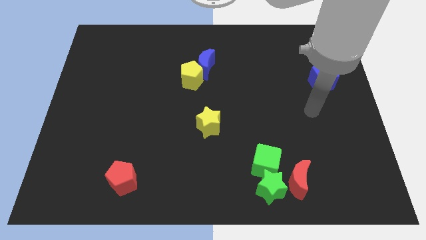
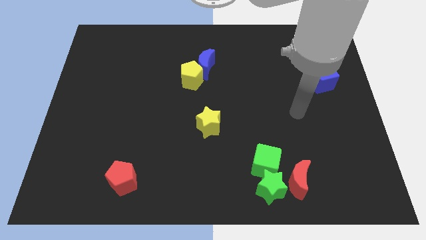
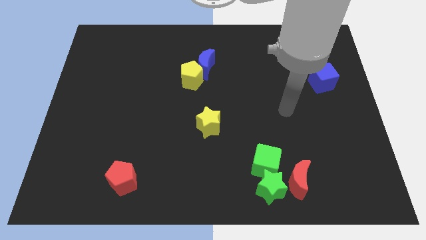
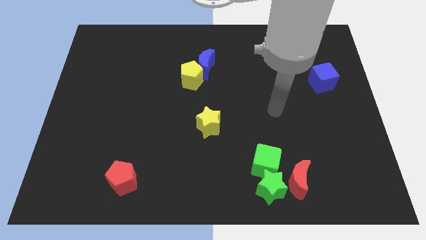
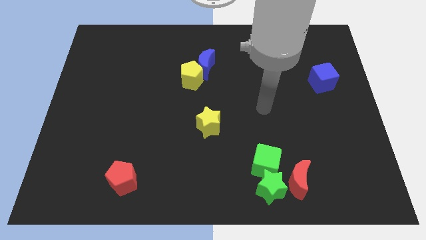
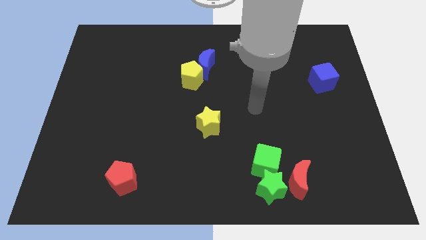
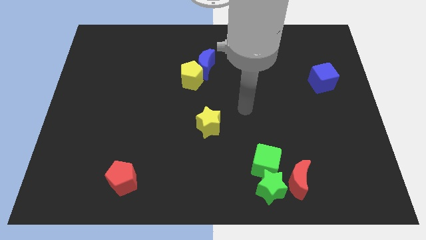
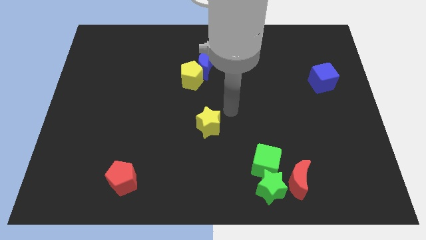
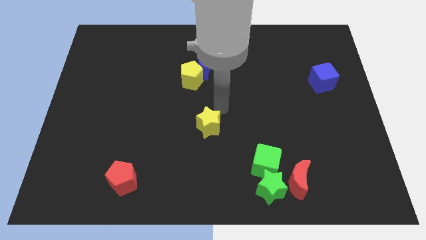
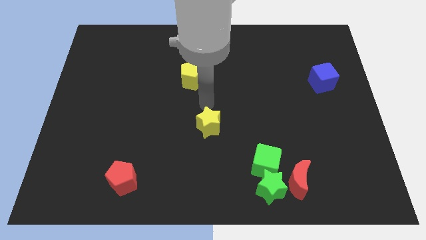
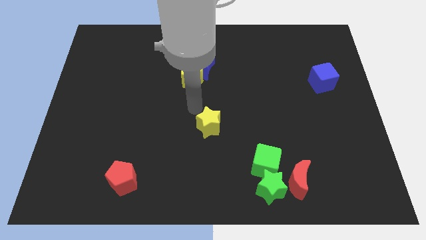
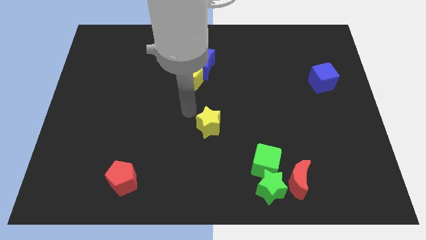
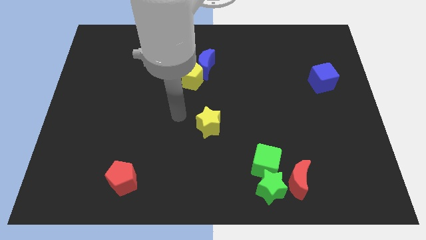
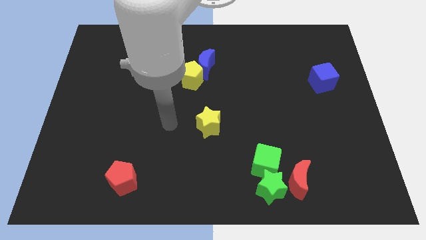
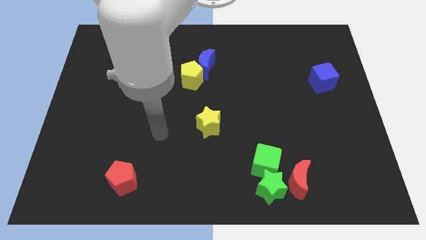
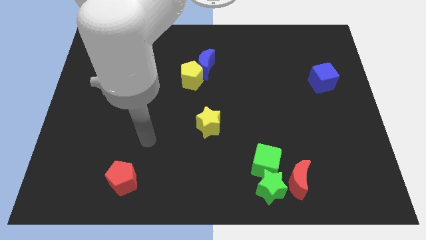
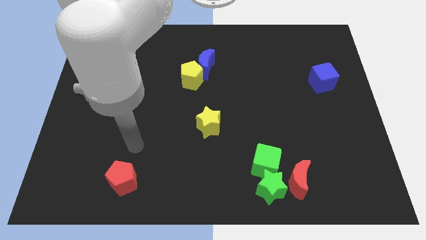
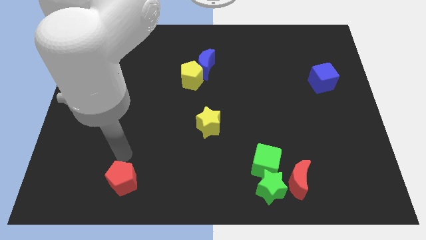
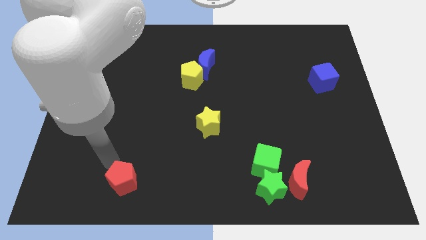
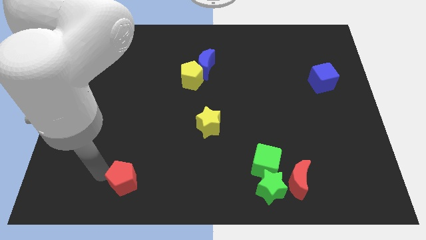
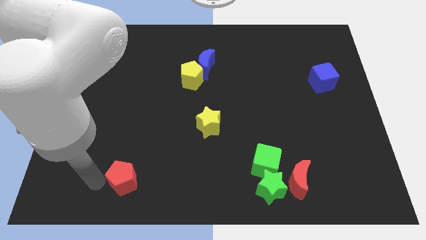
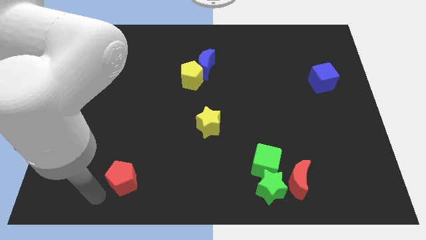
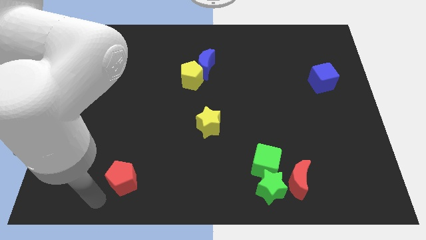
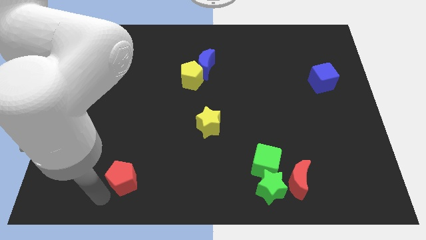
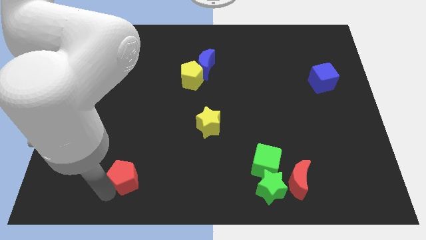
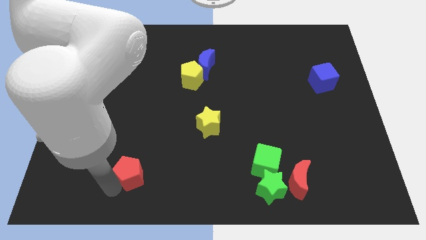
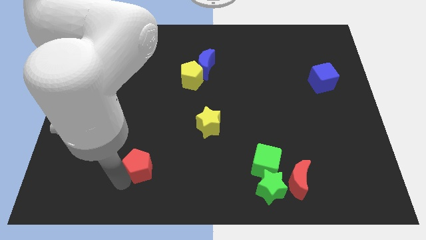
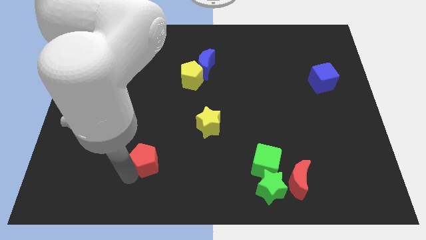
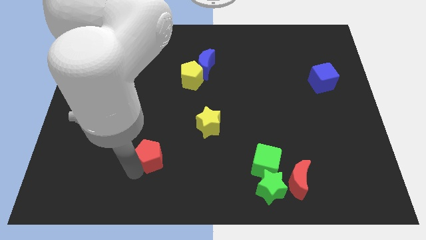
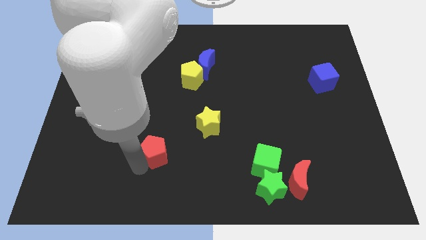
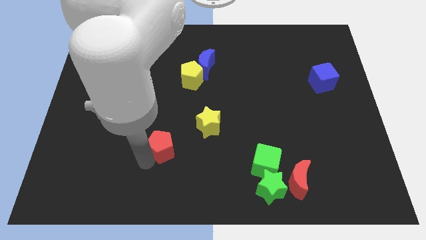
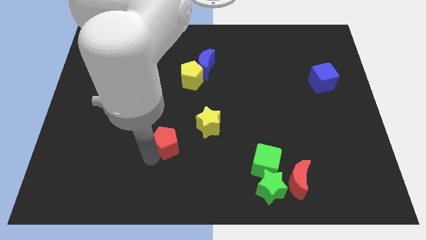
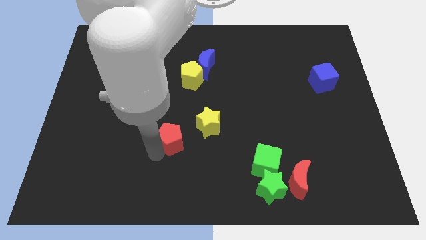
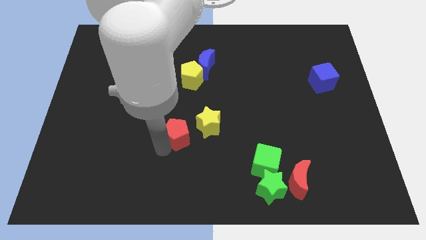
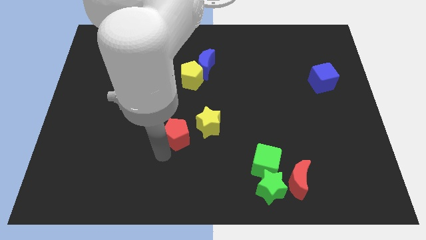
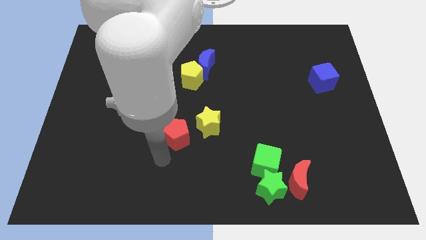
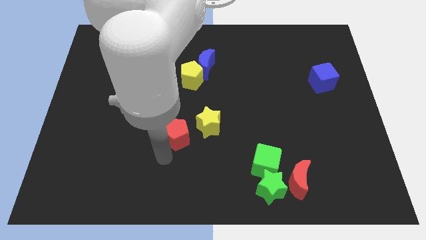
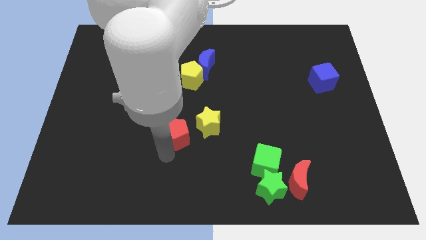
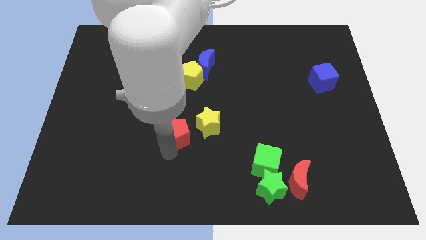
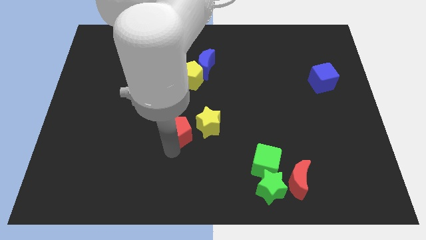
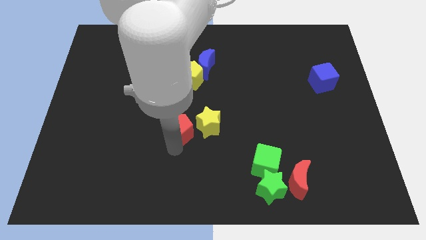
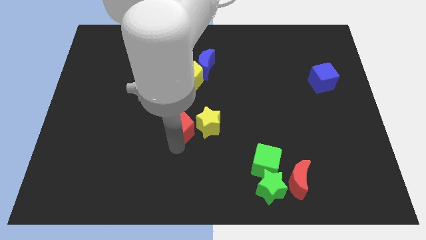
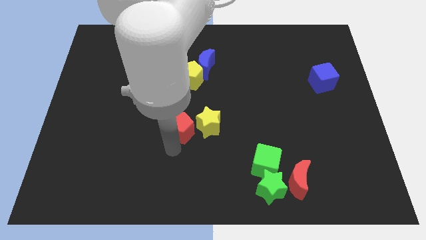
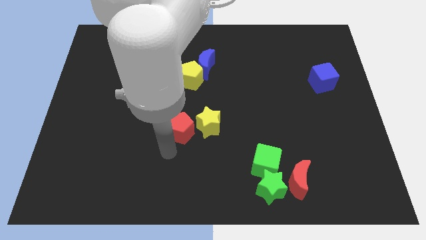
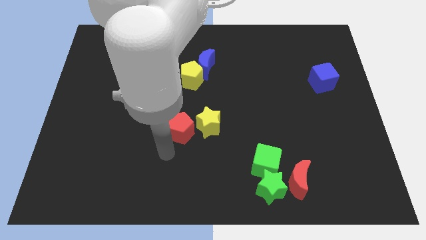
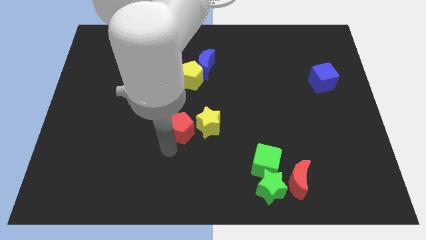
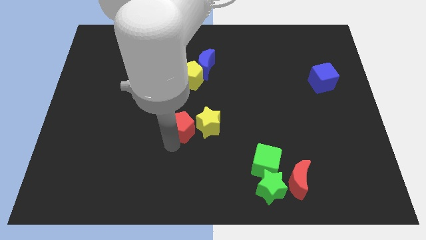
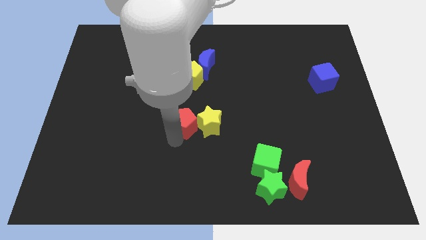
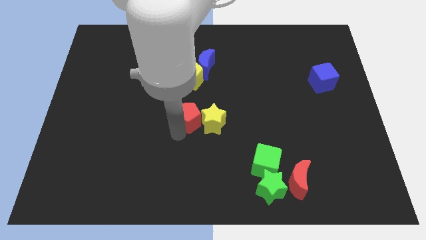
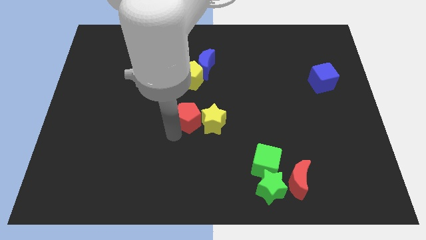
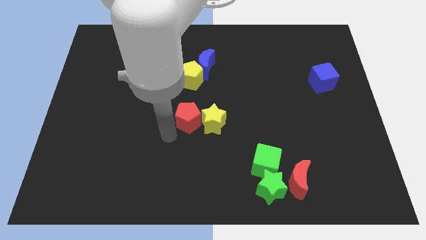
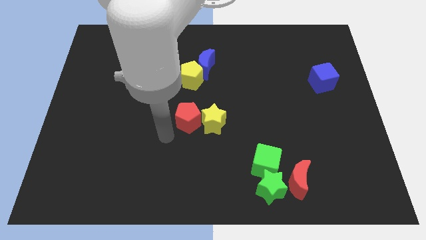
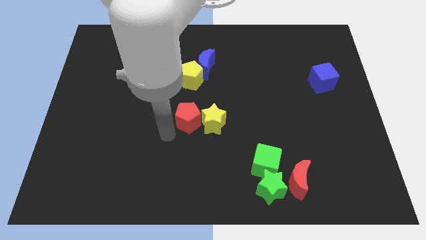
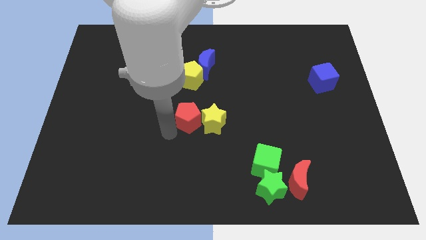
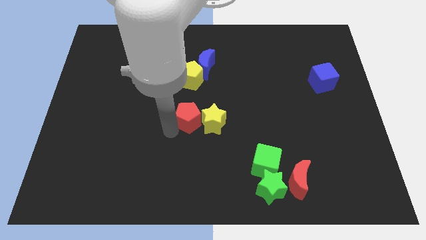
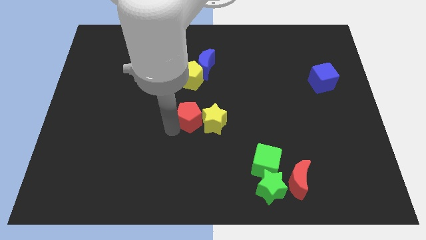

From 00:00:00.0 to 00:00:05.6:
slide the red pentagon up and to the right diagonally

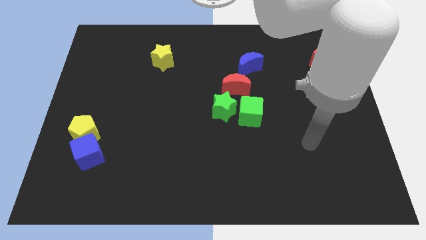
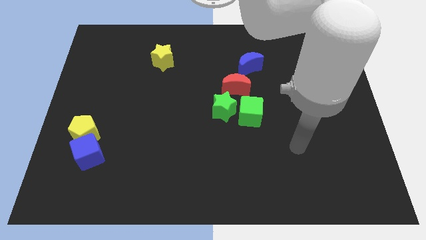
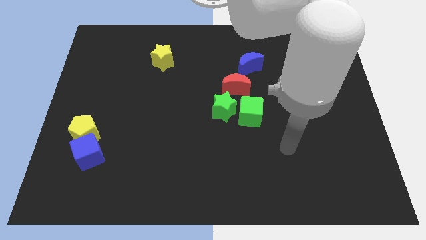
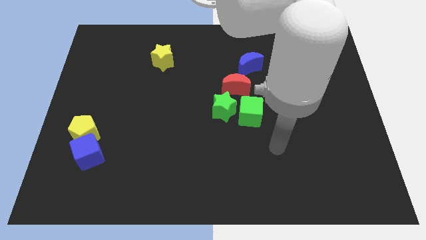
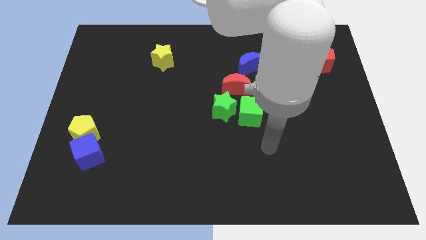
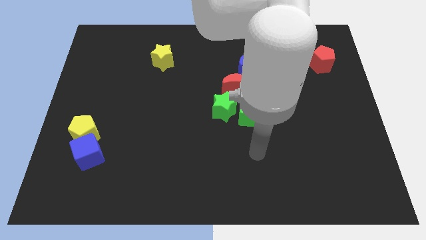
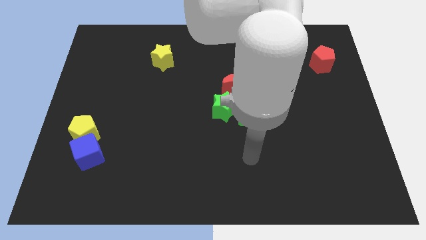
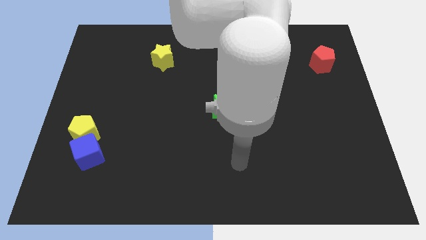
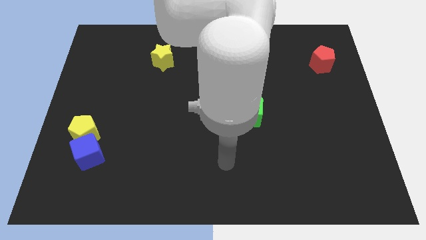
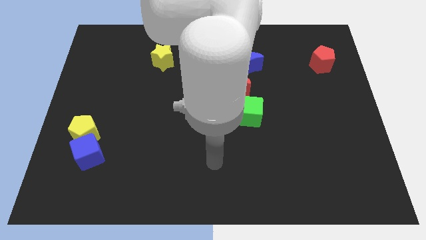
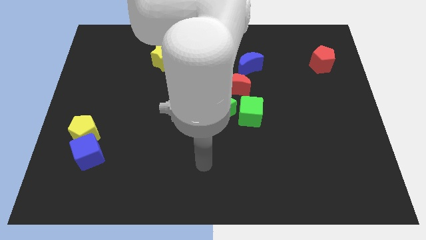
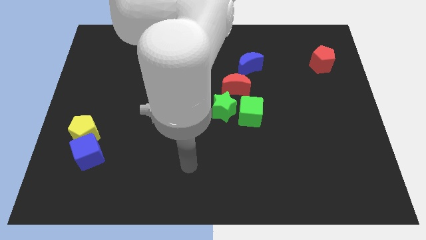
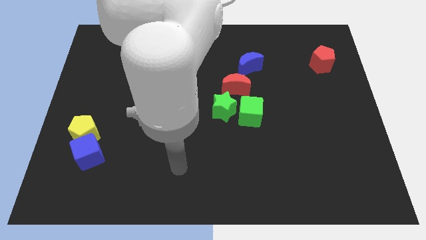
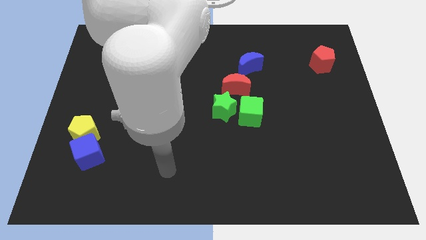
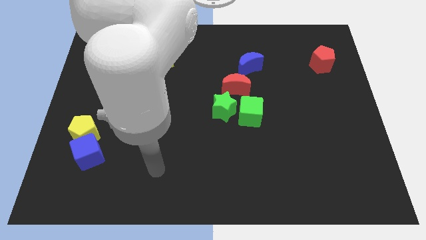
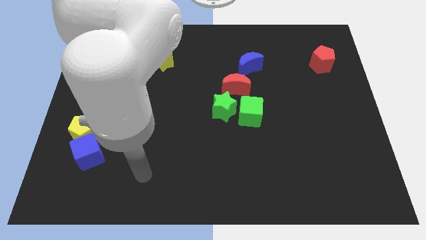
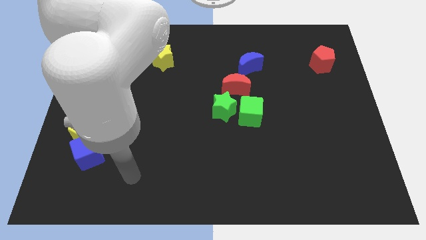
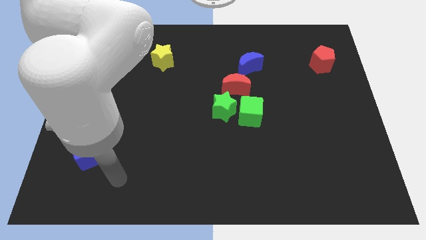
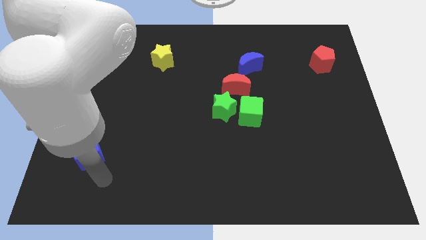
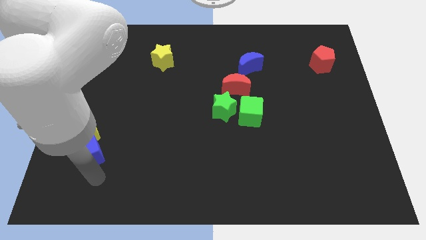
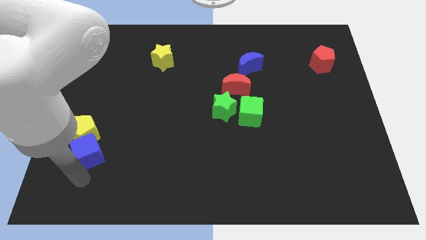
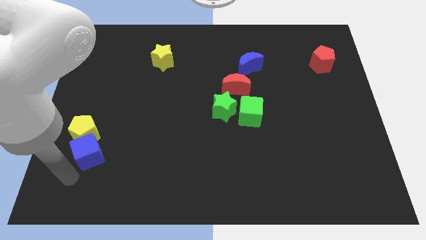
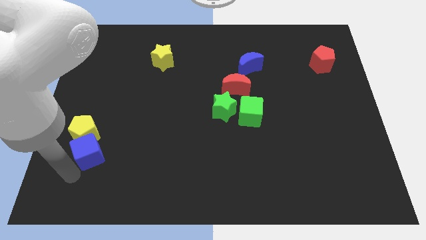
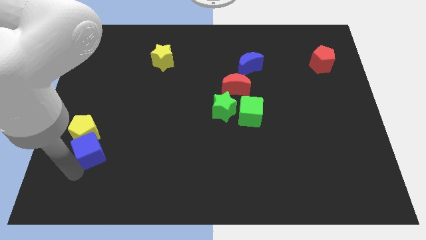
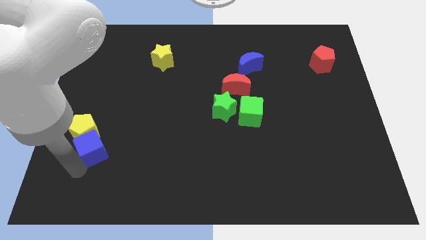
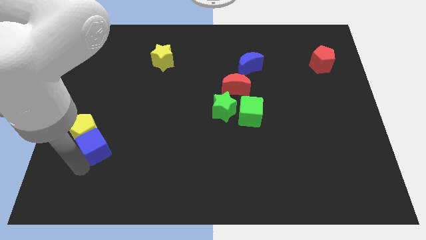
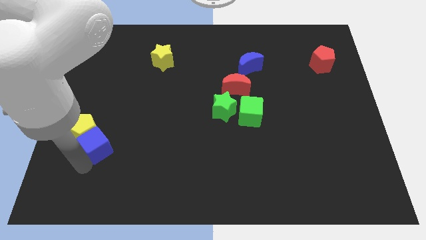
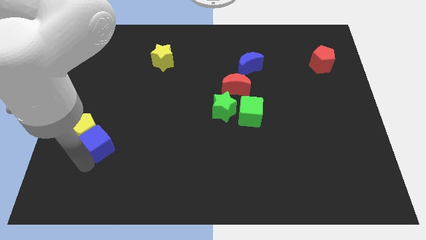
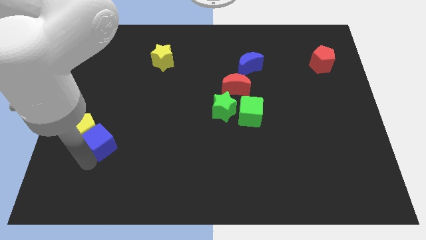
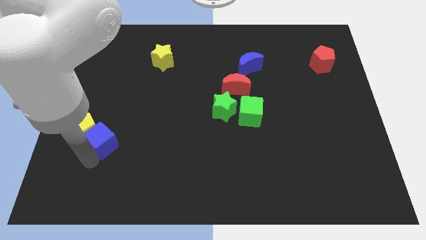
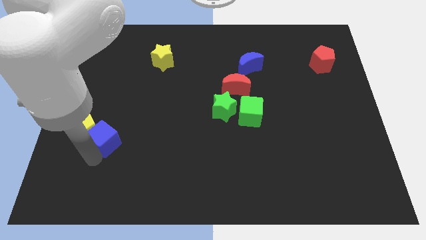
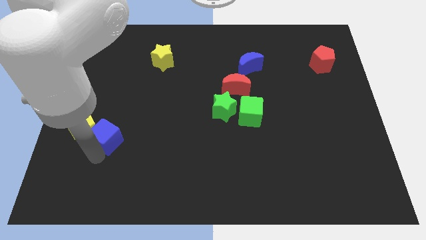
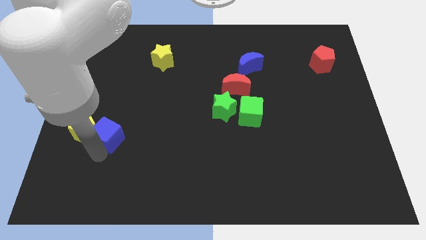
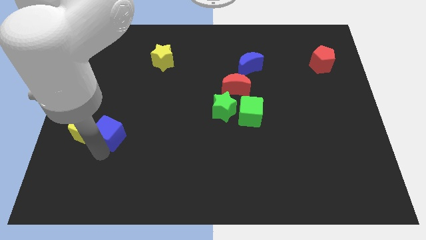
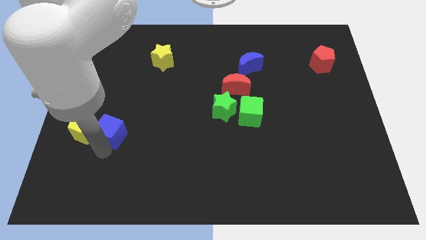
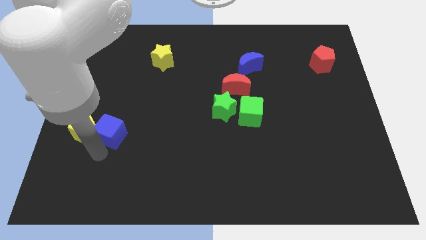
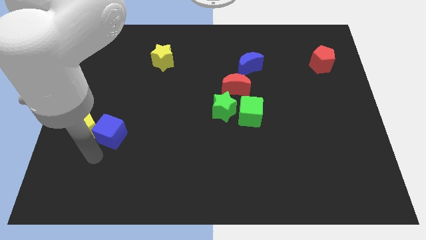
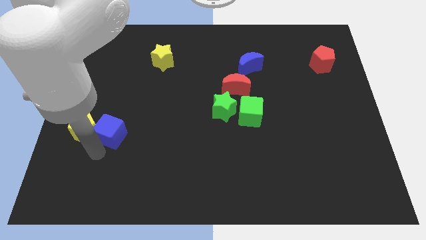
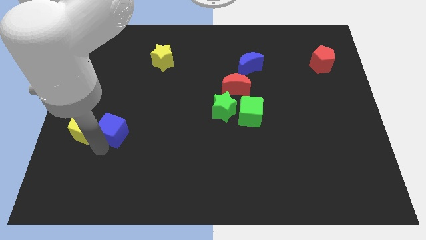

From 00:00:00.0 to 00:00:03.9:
move the blue cube up and then to the right a little bit
